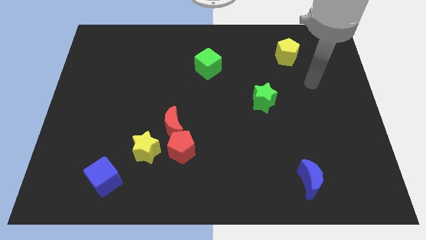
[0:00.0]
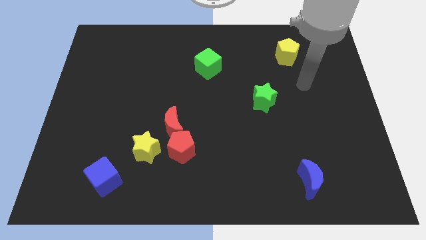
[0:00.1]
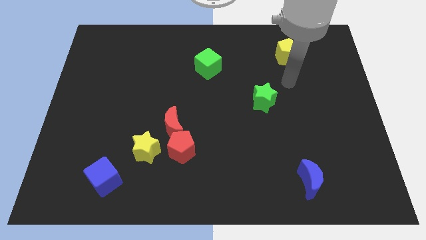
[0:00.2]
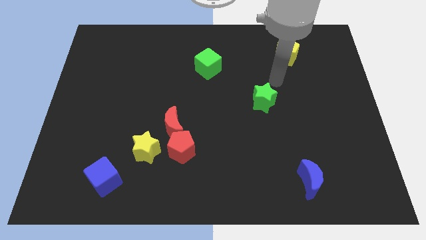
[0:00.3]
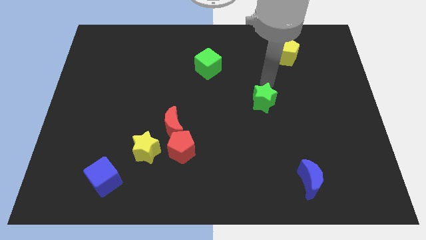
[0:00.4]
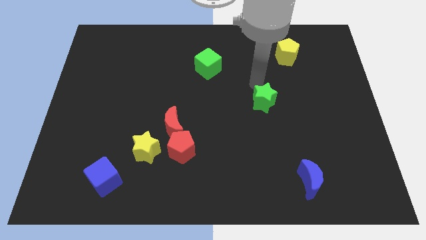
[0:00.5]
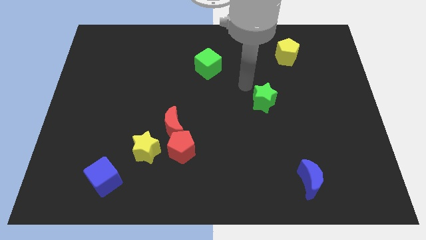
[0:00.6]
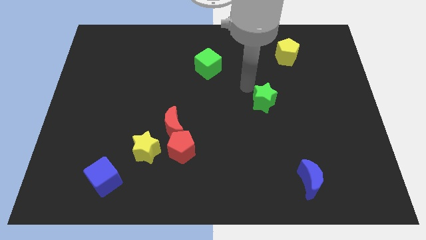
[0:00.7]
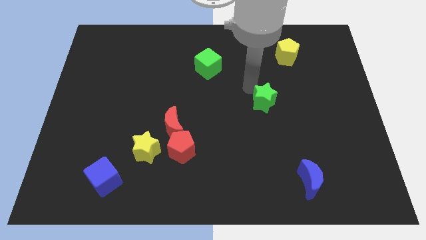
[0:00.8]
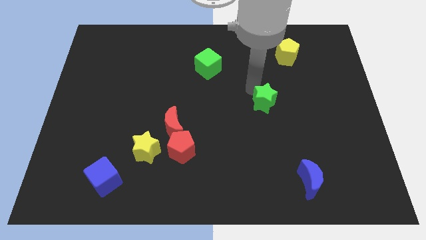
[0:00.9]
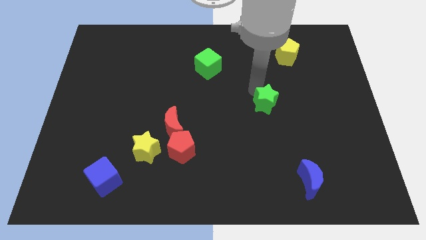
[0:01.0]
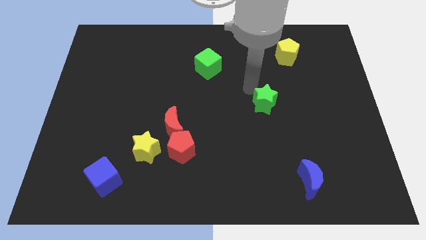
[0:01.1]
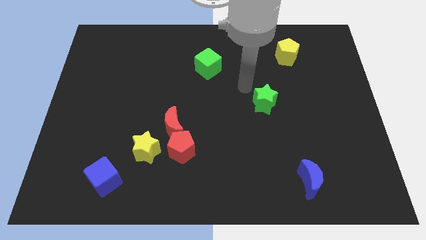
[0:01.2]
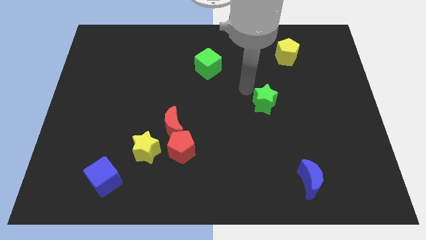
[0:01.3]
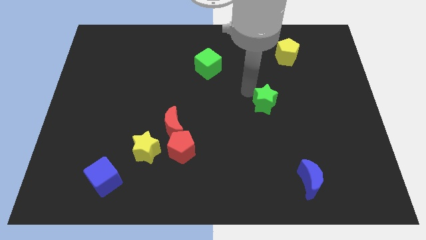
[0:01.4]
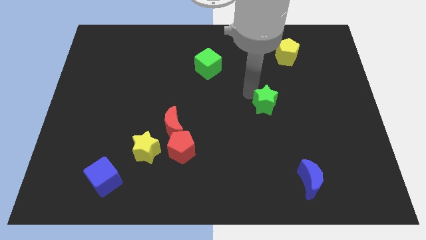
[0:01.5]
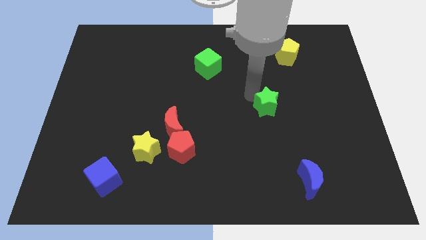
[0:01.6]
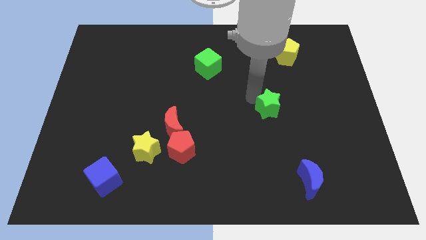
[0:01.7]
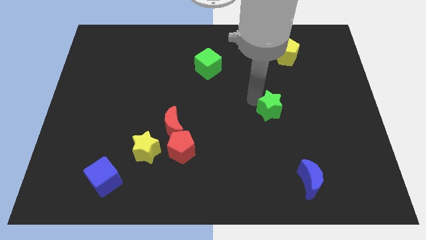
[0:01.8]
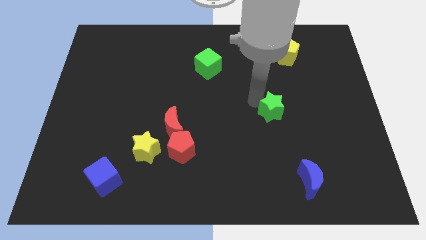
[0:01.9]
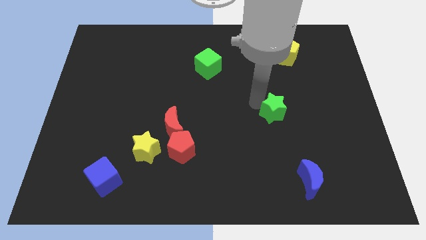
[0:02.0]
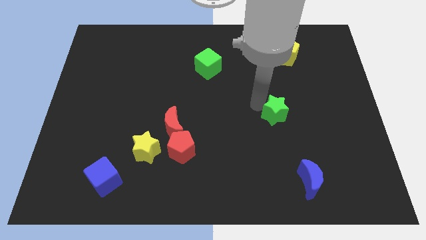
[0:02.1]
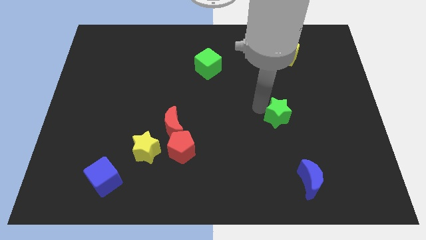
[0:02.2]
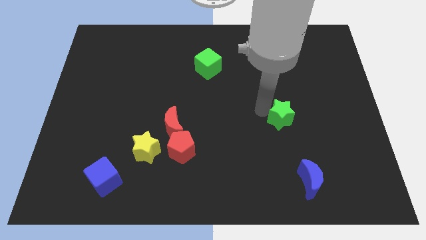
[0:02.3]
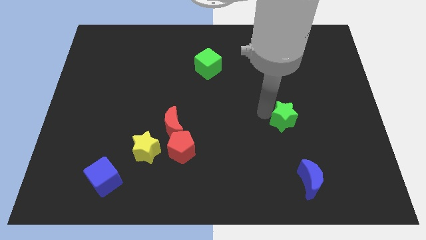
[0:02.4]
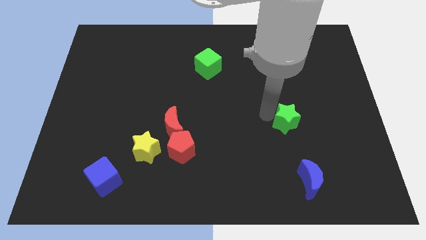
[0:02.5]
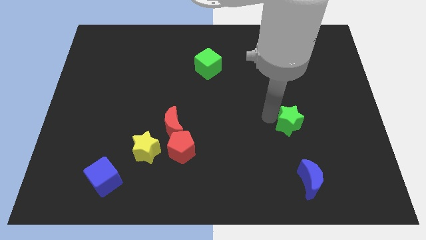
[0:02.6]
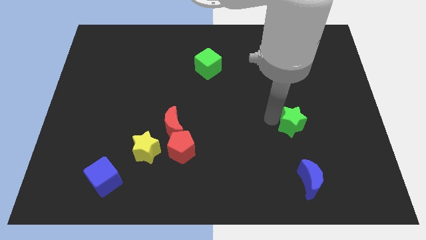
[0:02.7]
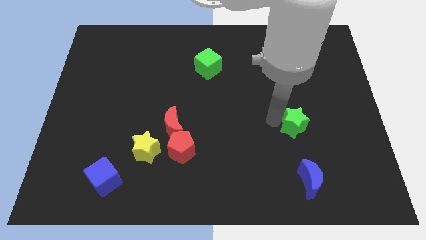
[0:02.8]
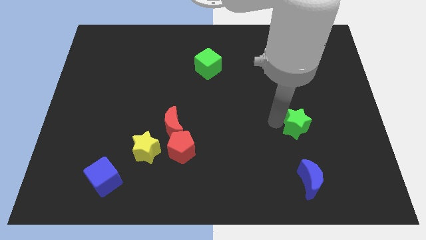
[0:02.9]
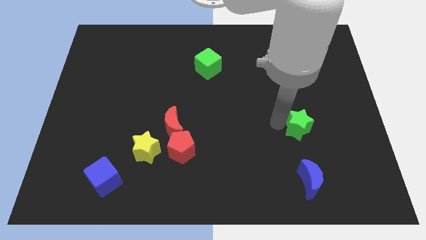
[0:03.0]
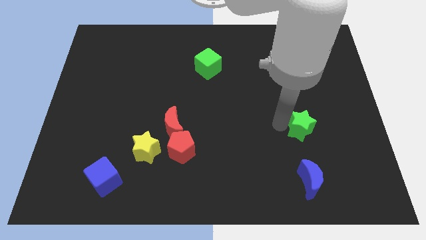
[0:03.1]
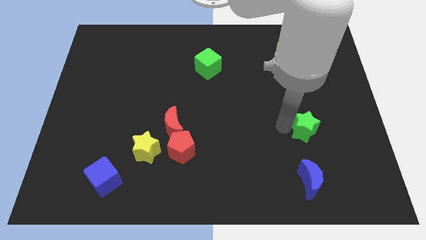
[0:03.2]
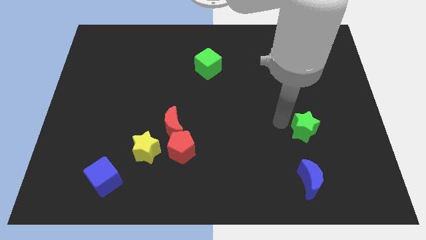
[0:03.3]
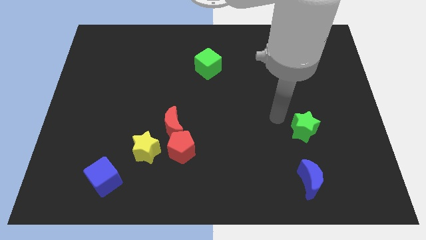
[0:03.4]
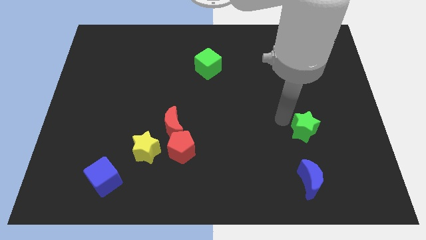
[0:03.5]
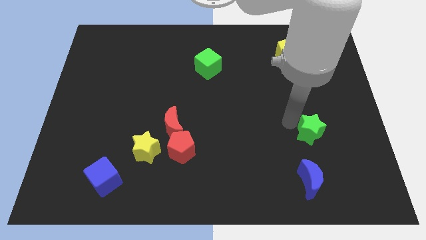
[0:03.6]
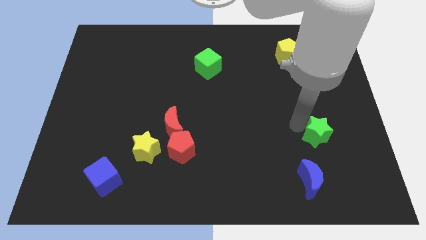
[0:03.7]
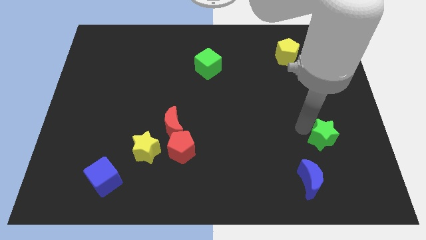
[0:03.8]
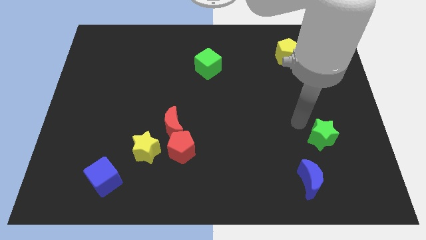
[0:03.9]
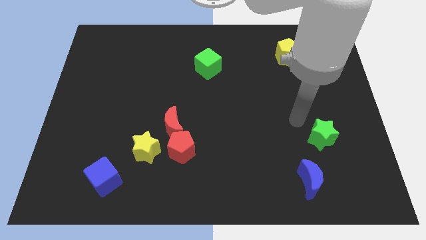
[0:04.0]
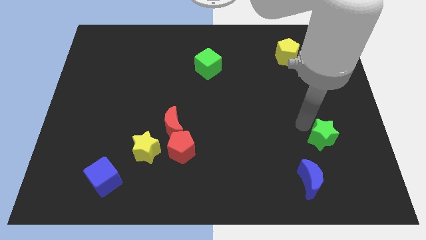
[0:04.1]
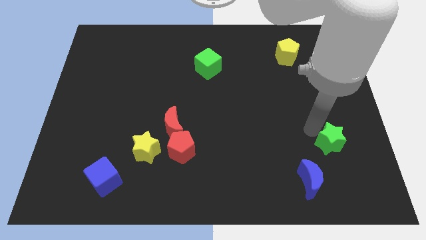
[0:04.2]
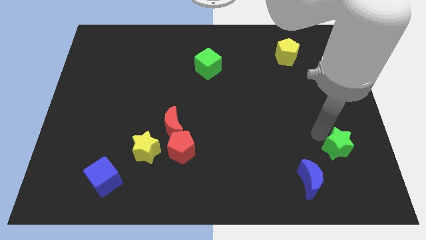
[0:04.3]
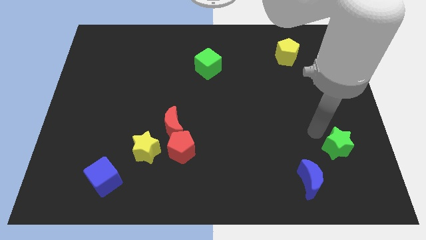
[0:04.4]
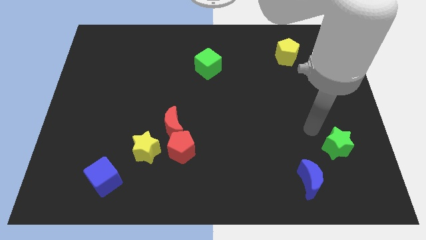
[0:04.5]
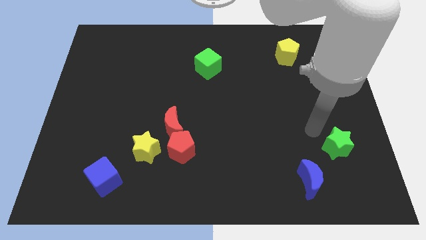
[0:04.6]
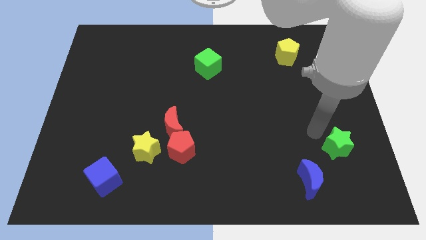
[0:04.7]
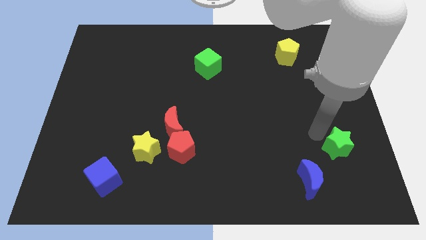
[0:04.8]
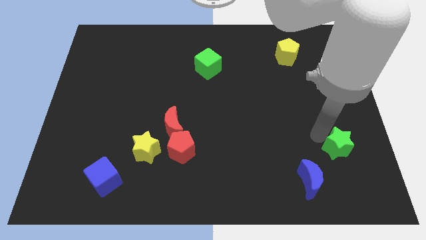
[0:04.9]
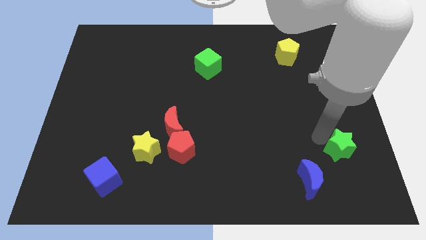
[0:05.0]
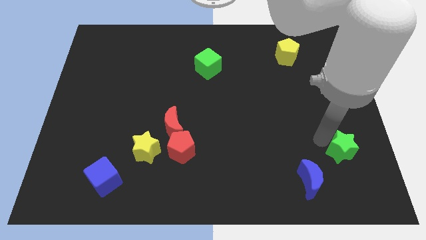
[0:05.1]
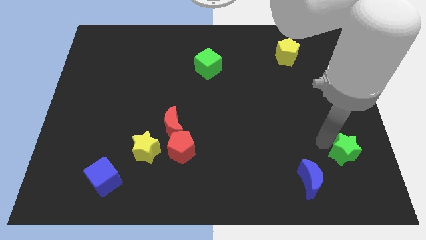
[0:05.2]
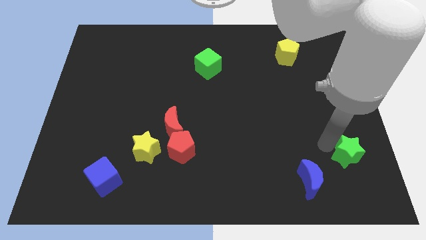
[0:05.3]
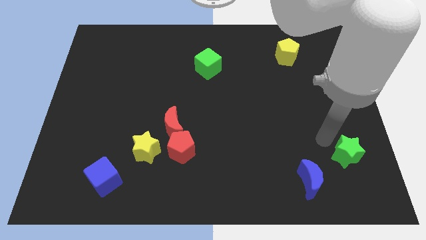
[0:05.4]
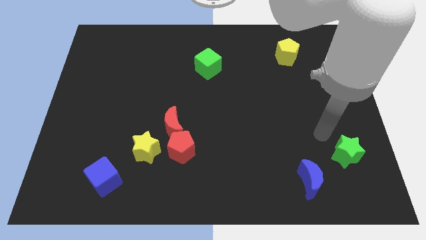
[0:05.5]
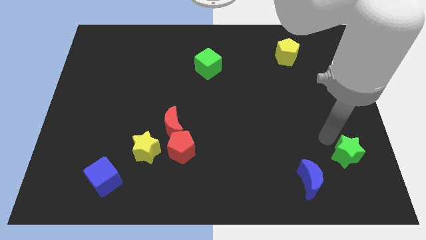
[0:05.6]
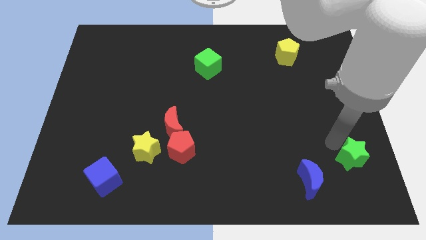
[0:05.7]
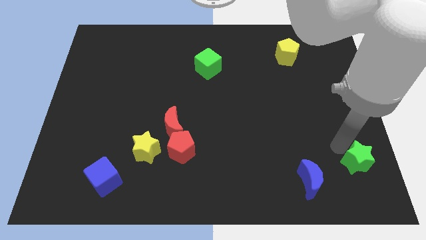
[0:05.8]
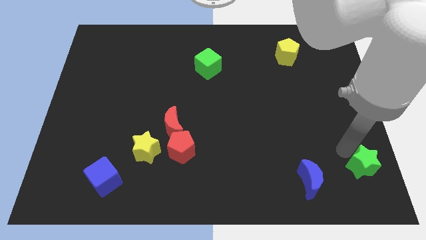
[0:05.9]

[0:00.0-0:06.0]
move the green star to the bottom right of the board

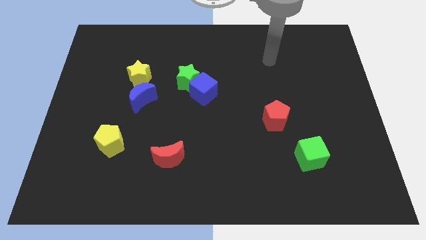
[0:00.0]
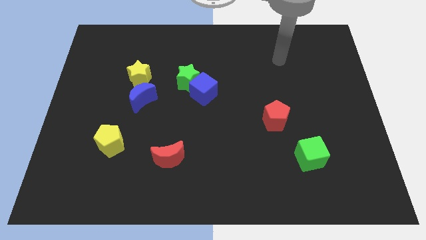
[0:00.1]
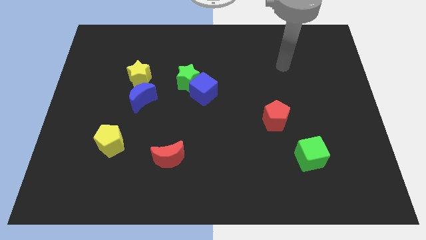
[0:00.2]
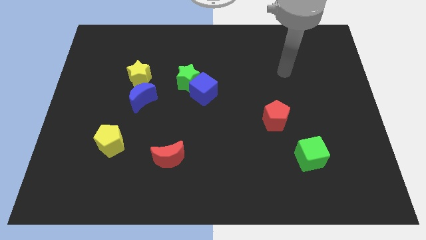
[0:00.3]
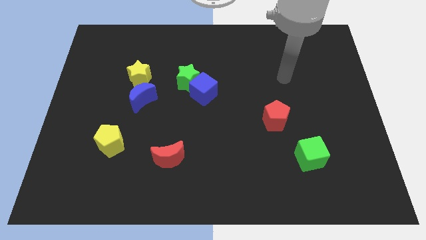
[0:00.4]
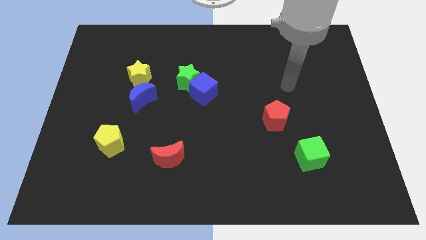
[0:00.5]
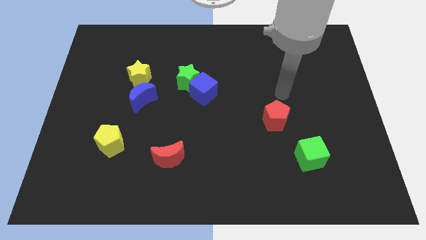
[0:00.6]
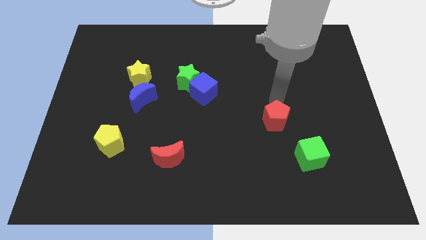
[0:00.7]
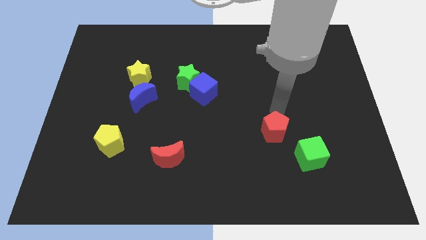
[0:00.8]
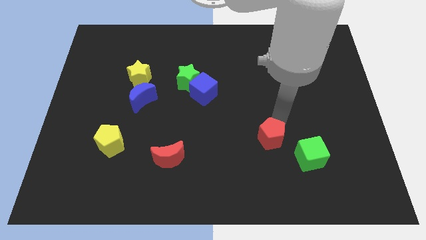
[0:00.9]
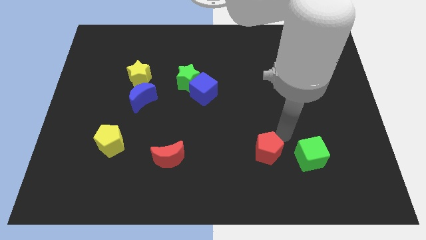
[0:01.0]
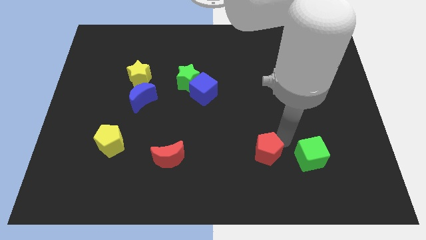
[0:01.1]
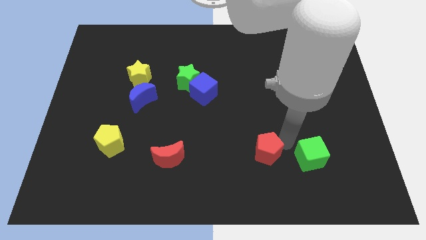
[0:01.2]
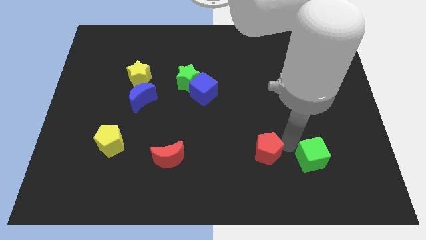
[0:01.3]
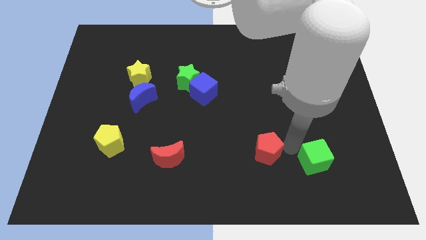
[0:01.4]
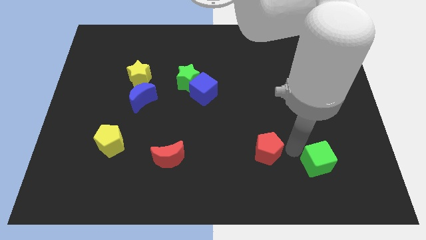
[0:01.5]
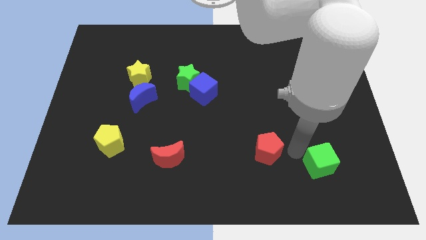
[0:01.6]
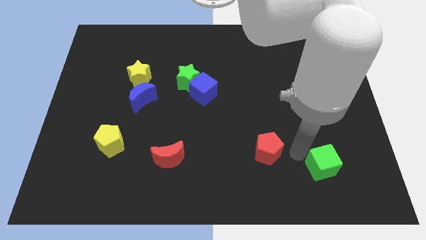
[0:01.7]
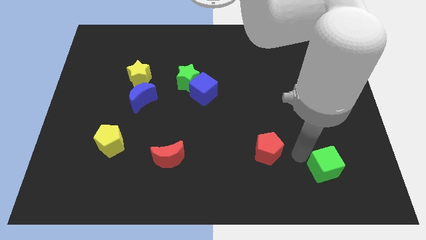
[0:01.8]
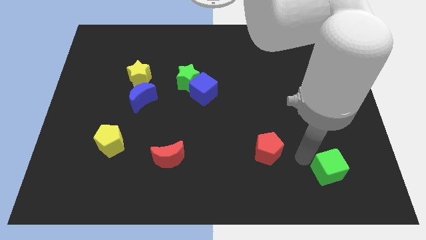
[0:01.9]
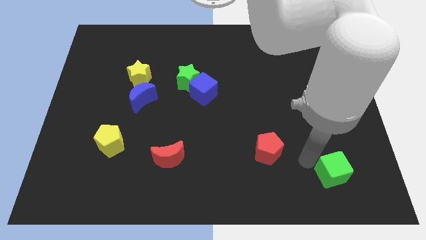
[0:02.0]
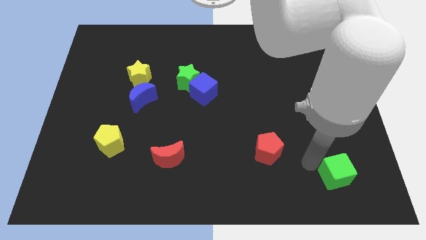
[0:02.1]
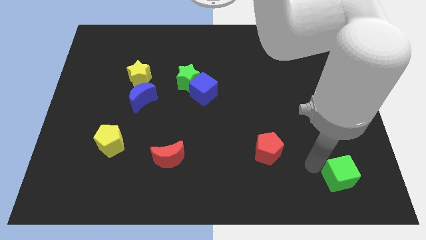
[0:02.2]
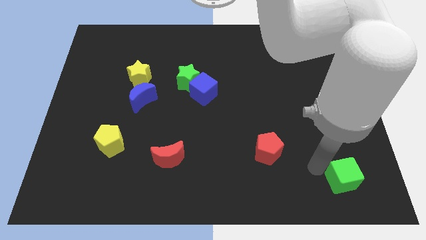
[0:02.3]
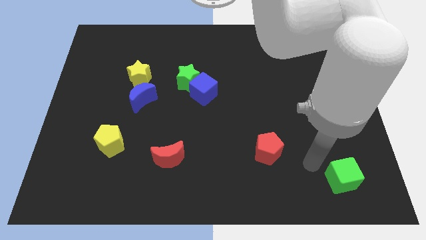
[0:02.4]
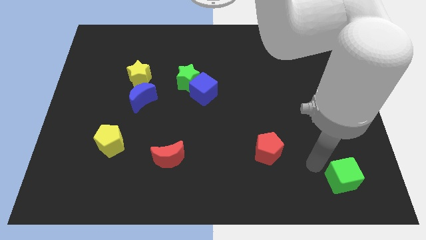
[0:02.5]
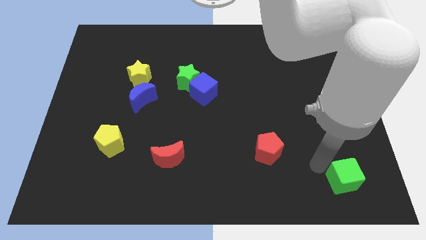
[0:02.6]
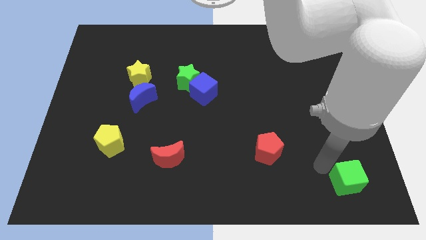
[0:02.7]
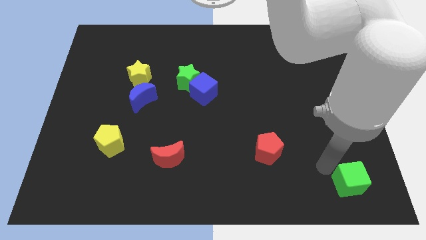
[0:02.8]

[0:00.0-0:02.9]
move the green cube to the bottom right corner
